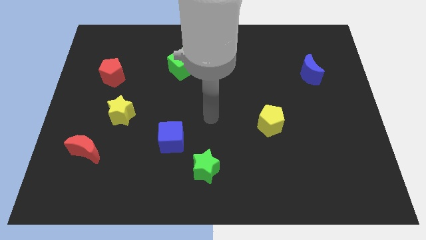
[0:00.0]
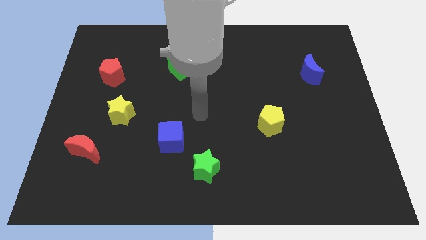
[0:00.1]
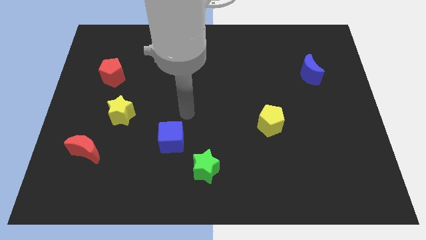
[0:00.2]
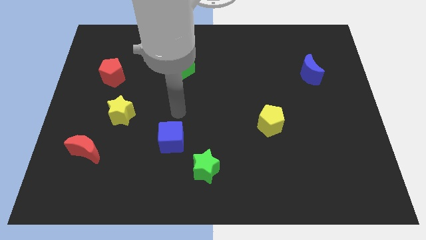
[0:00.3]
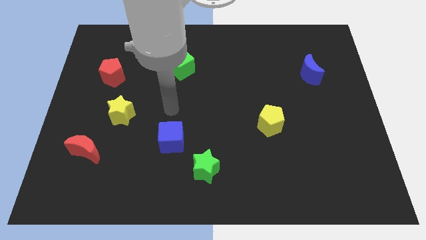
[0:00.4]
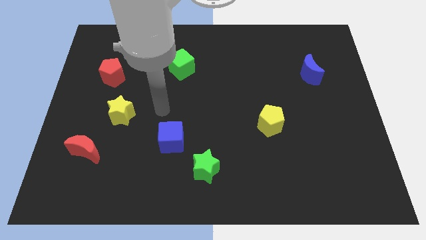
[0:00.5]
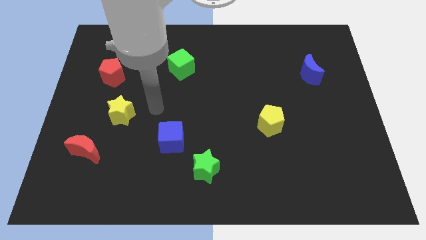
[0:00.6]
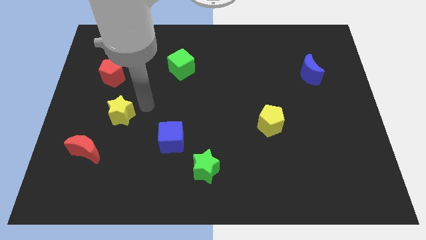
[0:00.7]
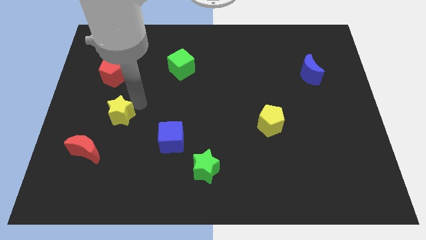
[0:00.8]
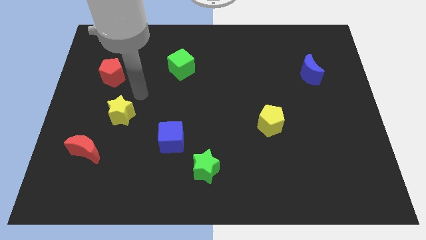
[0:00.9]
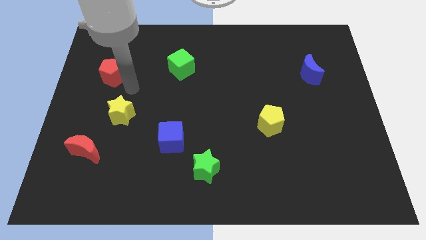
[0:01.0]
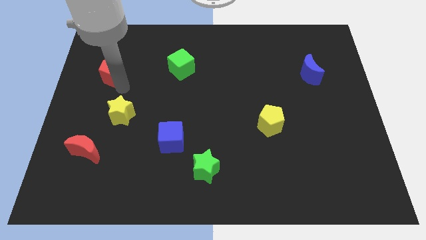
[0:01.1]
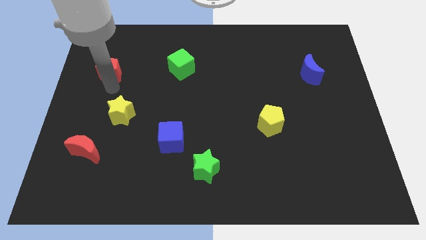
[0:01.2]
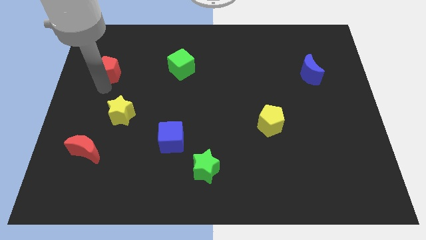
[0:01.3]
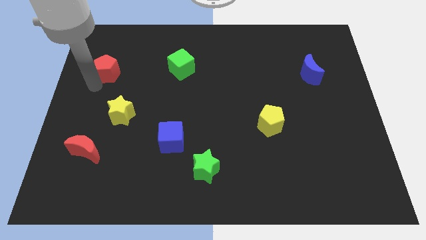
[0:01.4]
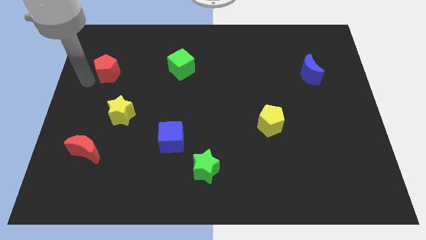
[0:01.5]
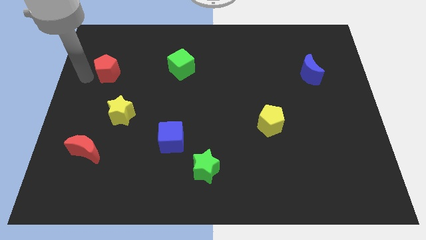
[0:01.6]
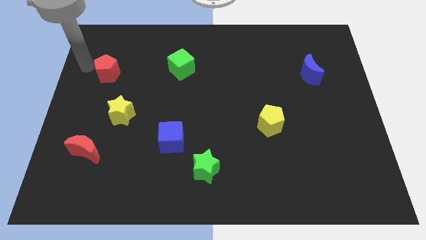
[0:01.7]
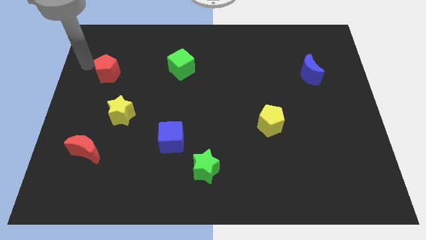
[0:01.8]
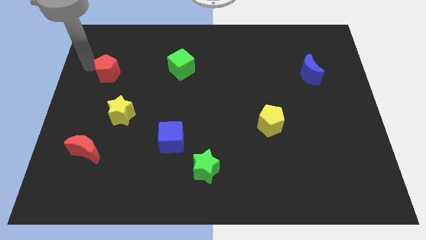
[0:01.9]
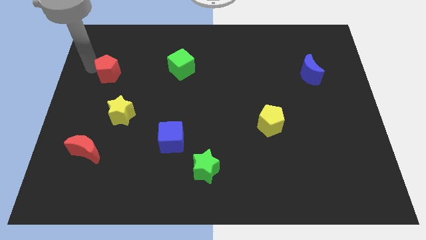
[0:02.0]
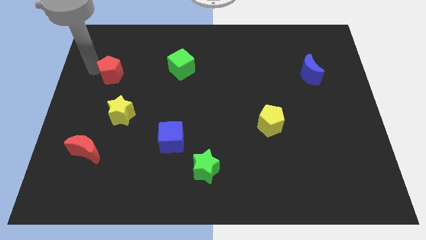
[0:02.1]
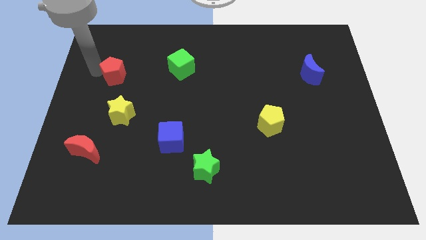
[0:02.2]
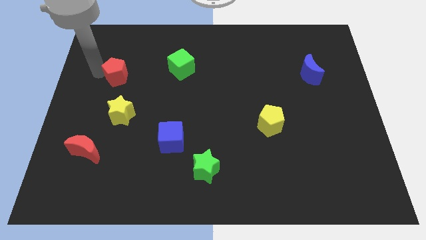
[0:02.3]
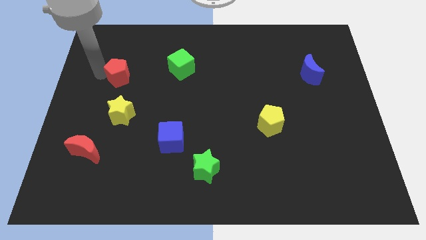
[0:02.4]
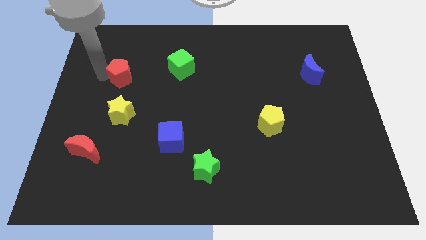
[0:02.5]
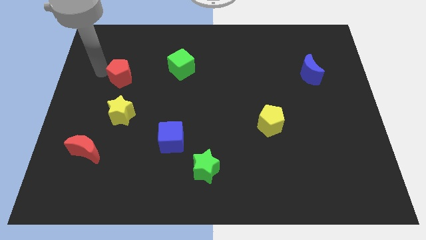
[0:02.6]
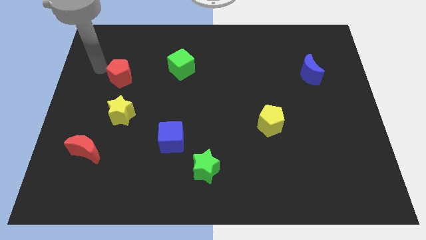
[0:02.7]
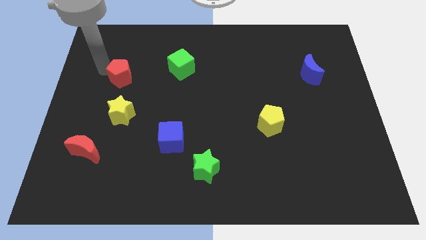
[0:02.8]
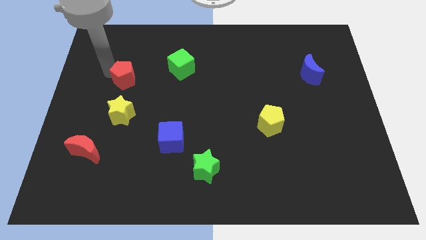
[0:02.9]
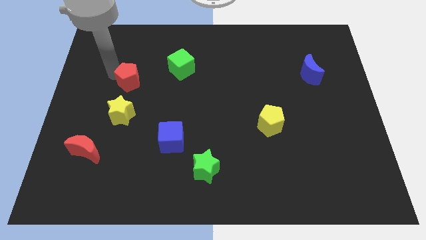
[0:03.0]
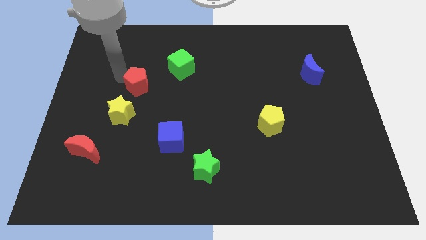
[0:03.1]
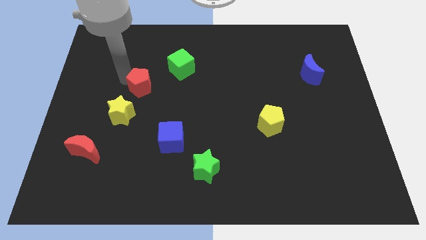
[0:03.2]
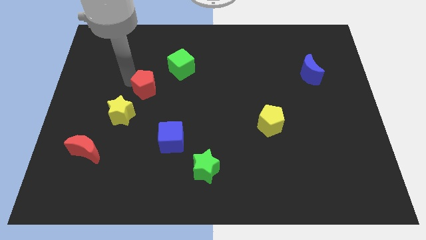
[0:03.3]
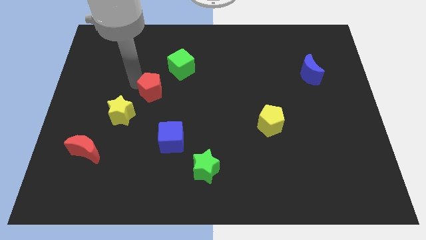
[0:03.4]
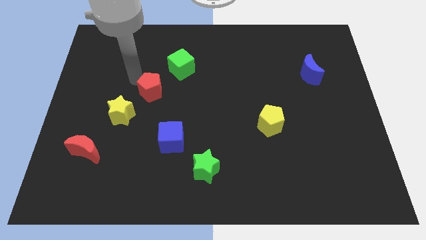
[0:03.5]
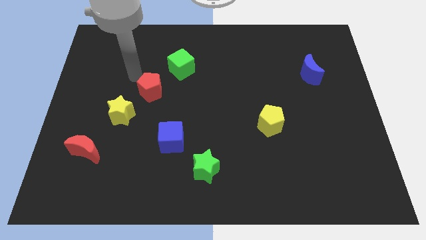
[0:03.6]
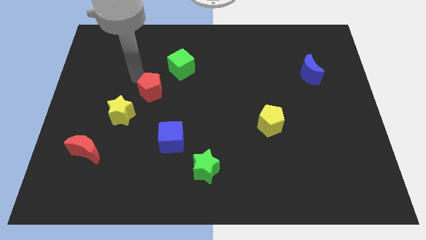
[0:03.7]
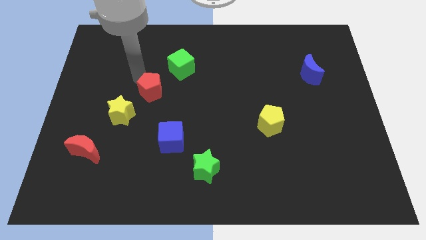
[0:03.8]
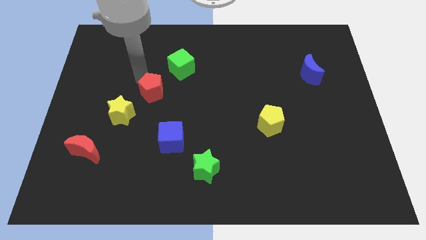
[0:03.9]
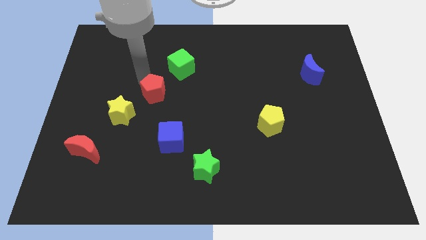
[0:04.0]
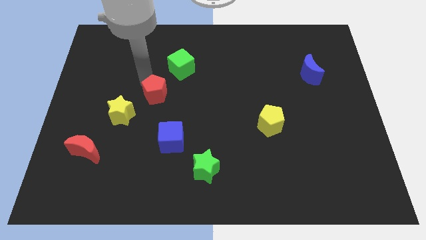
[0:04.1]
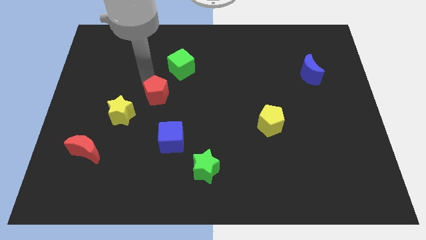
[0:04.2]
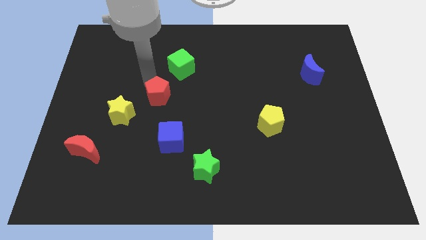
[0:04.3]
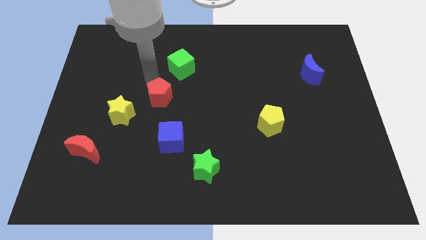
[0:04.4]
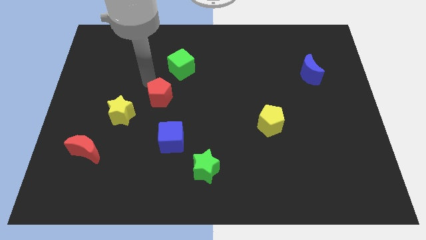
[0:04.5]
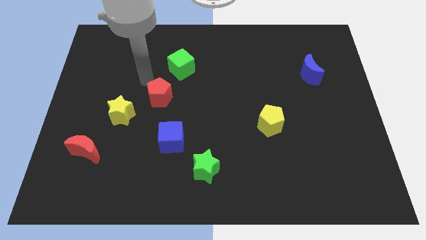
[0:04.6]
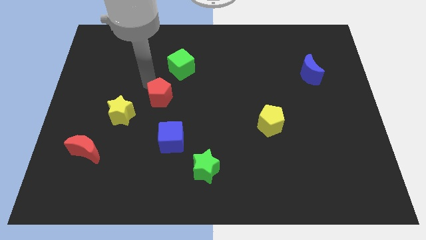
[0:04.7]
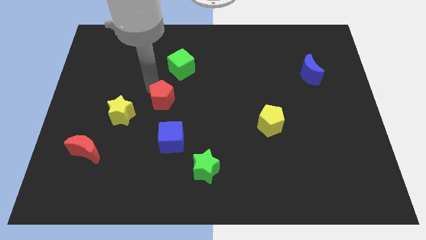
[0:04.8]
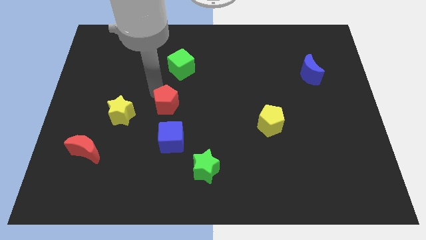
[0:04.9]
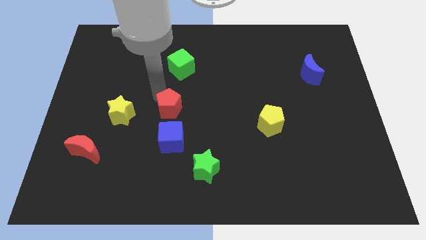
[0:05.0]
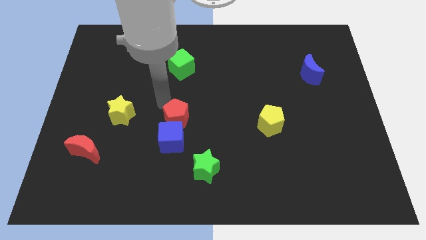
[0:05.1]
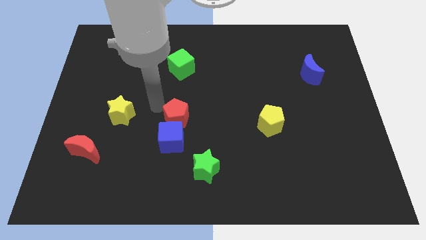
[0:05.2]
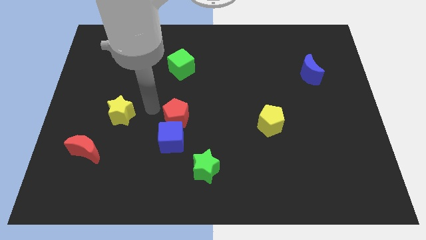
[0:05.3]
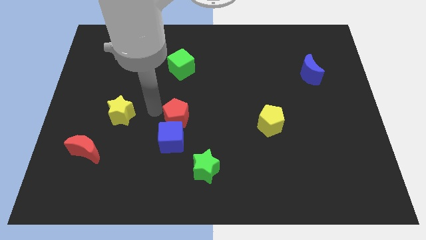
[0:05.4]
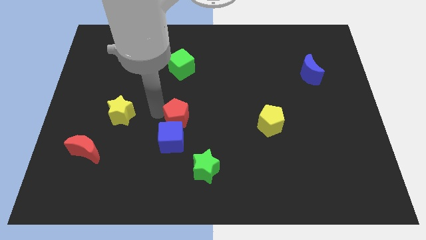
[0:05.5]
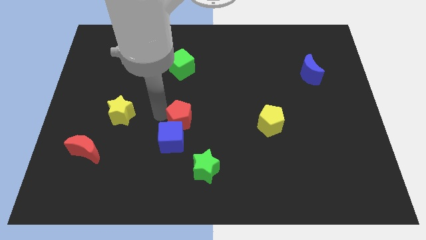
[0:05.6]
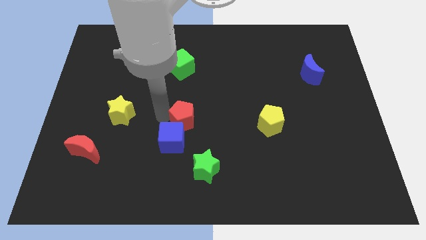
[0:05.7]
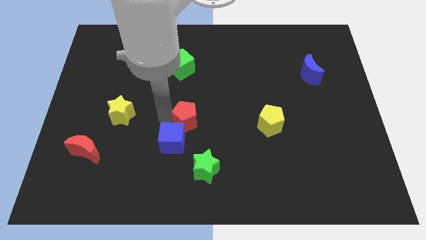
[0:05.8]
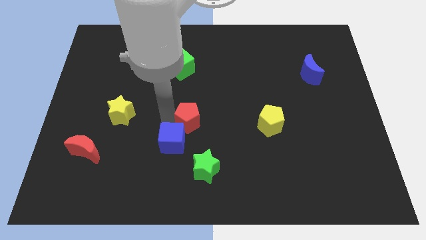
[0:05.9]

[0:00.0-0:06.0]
slide the red pentagon to the top of the green star

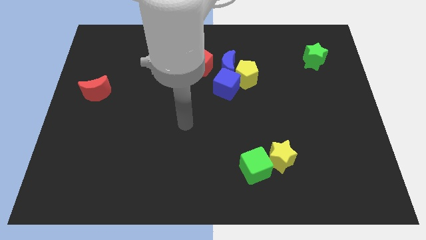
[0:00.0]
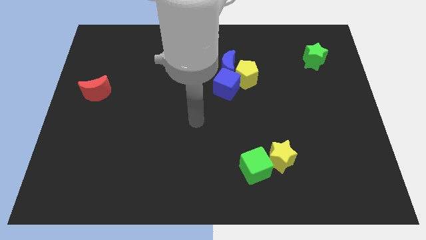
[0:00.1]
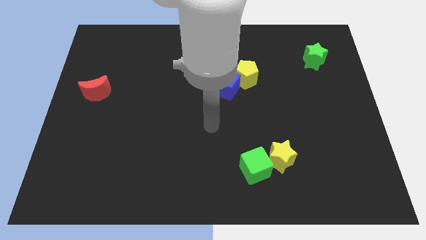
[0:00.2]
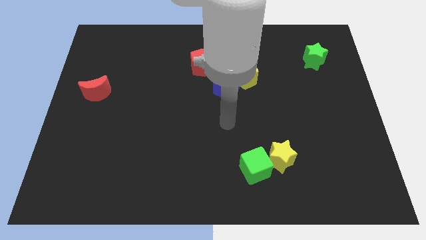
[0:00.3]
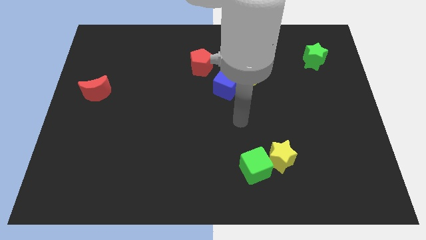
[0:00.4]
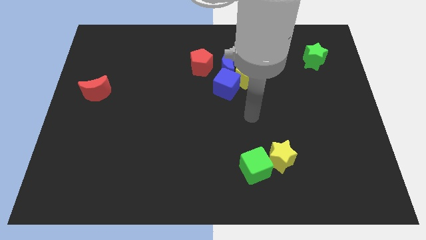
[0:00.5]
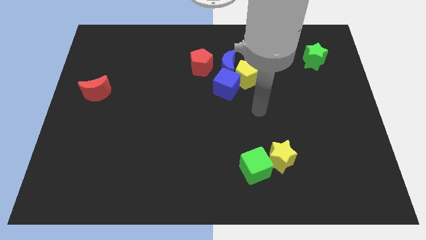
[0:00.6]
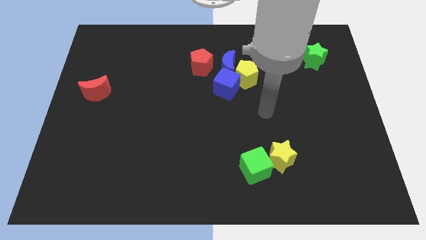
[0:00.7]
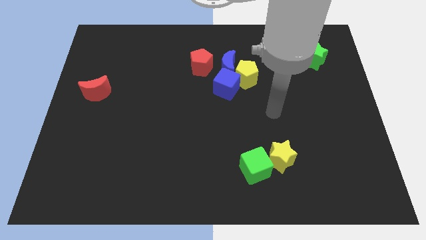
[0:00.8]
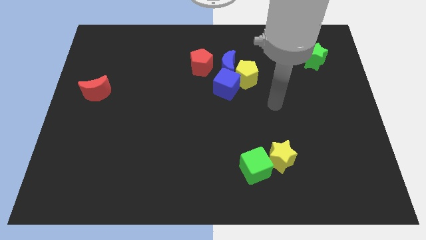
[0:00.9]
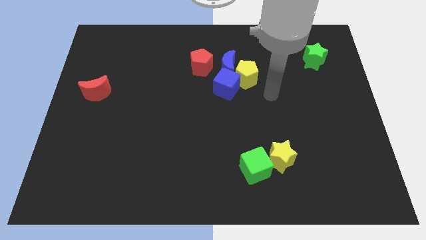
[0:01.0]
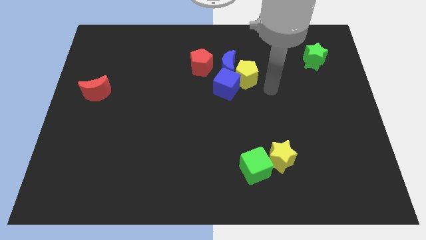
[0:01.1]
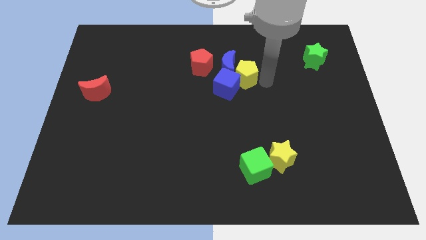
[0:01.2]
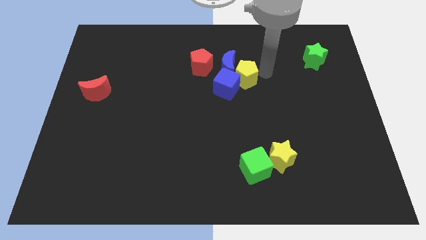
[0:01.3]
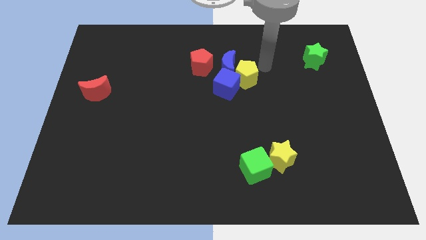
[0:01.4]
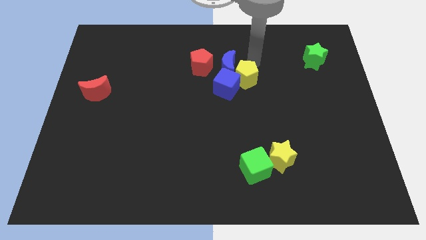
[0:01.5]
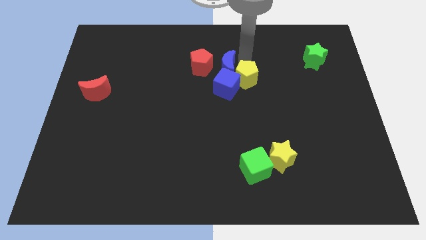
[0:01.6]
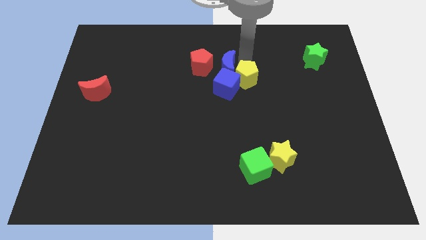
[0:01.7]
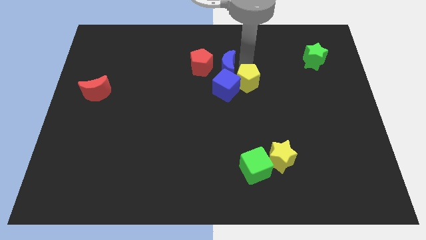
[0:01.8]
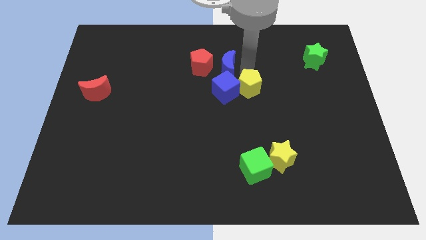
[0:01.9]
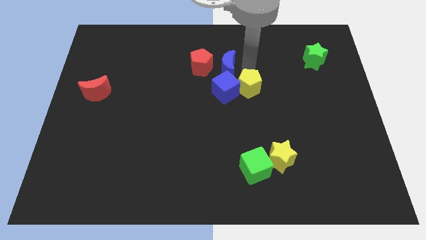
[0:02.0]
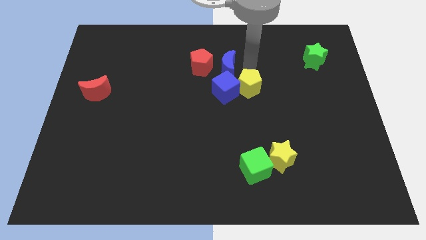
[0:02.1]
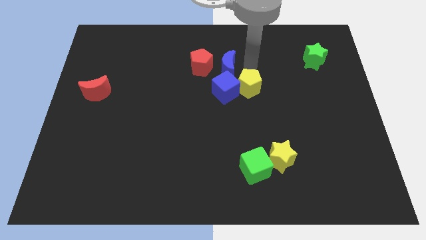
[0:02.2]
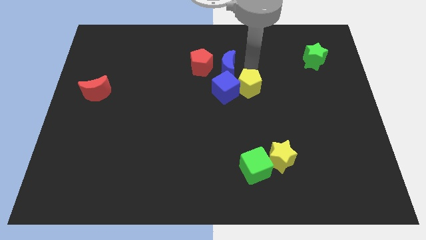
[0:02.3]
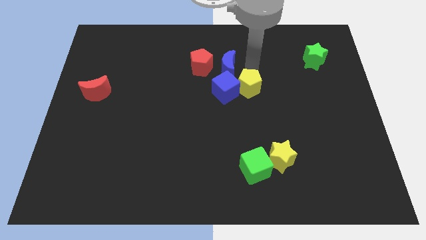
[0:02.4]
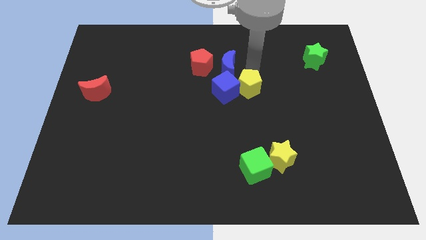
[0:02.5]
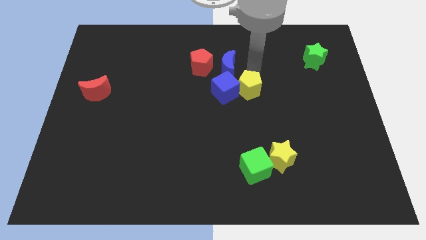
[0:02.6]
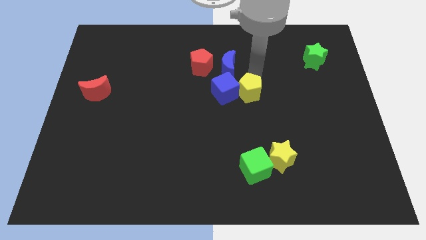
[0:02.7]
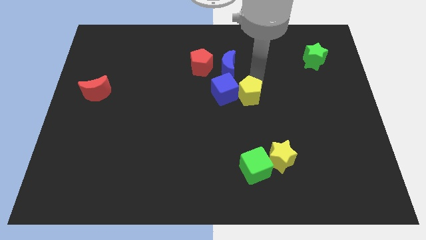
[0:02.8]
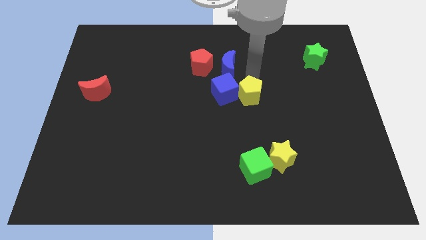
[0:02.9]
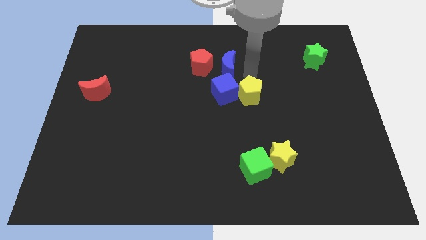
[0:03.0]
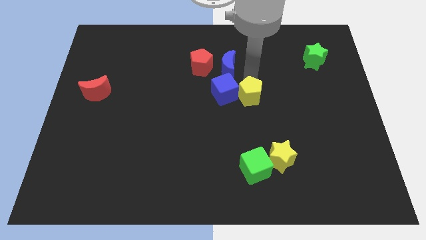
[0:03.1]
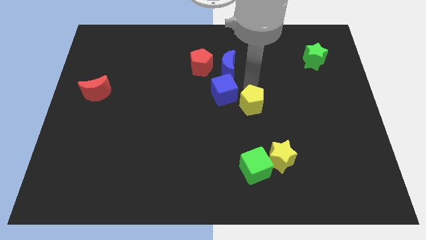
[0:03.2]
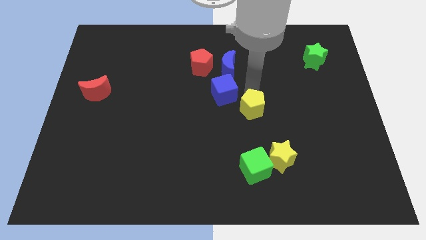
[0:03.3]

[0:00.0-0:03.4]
move the yellow pentagon to the top of the green cube
